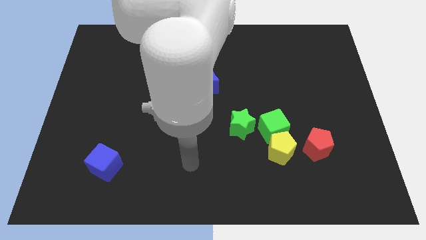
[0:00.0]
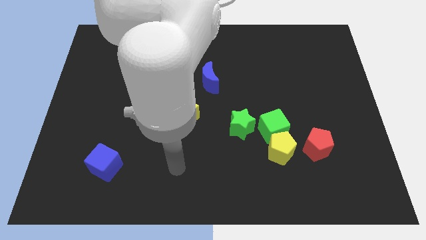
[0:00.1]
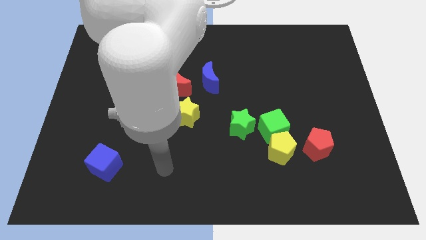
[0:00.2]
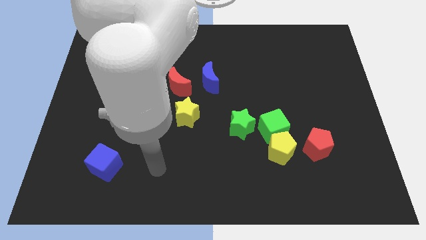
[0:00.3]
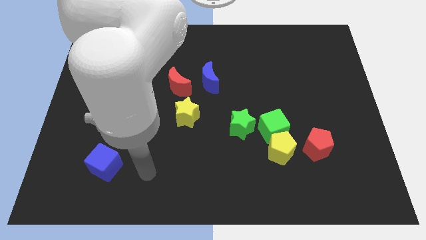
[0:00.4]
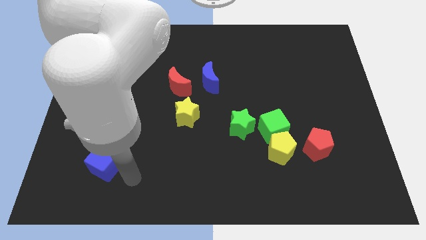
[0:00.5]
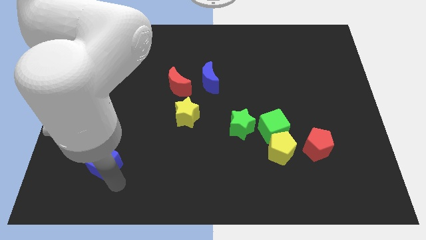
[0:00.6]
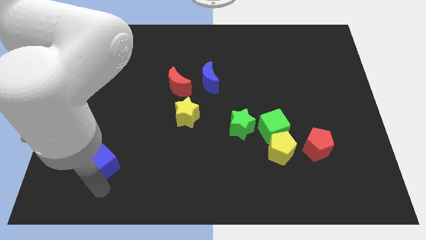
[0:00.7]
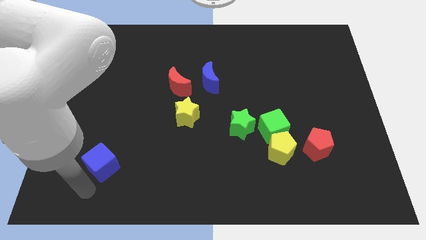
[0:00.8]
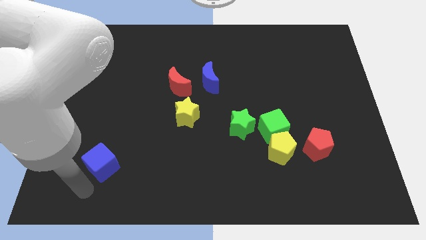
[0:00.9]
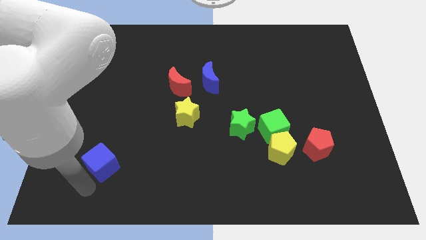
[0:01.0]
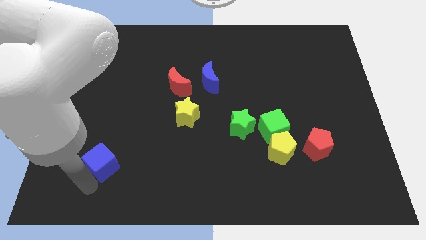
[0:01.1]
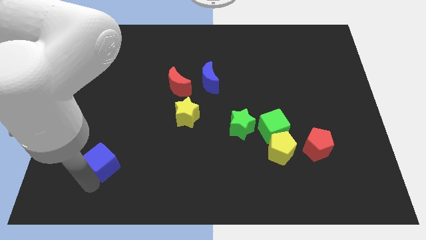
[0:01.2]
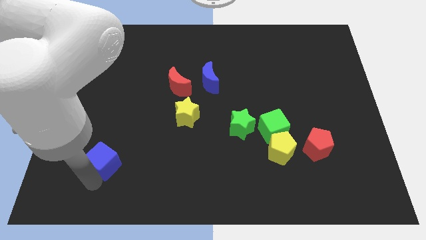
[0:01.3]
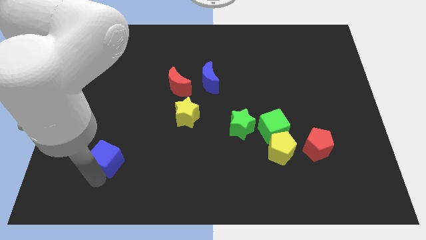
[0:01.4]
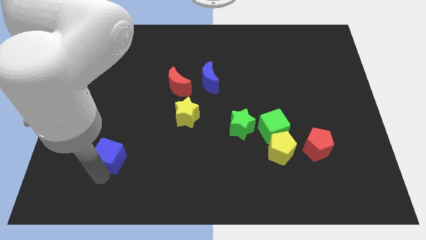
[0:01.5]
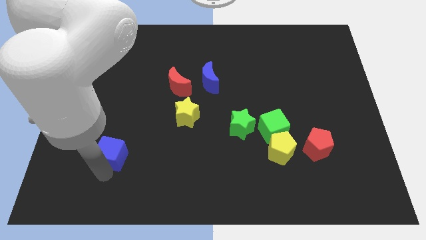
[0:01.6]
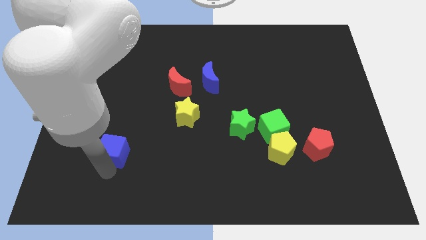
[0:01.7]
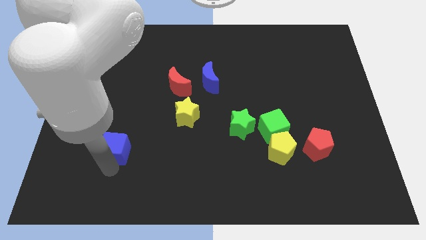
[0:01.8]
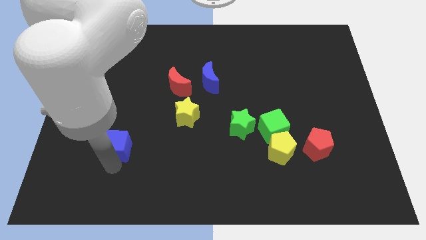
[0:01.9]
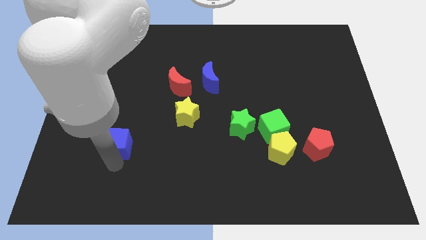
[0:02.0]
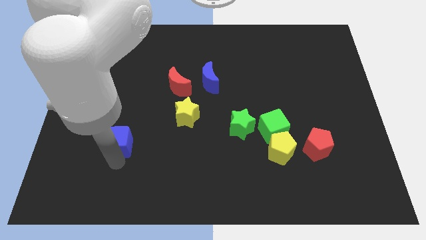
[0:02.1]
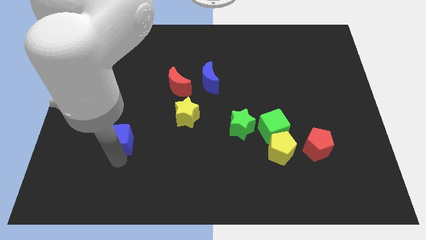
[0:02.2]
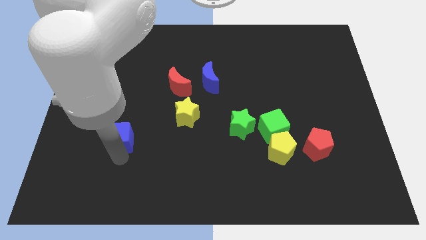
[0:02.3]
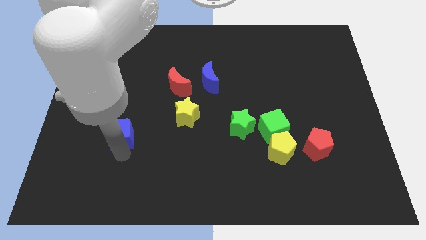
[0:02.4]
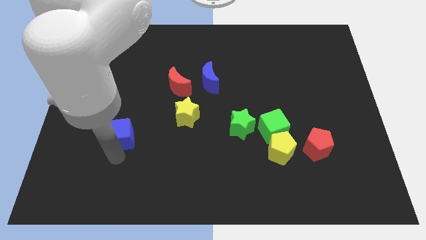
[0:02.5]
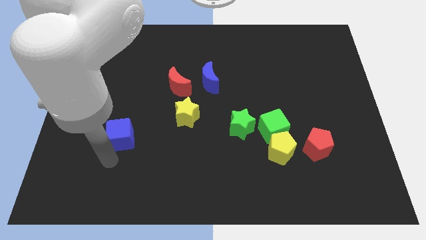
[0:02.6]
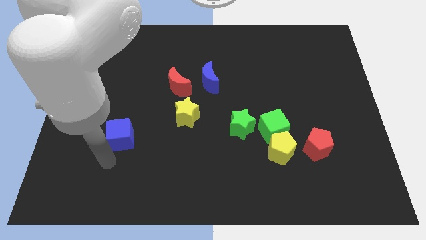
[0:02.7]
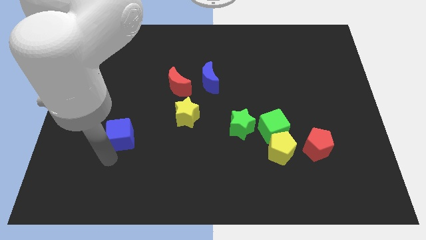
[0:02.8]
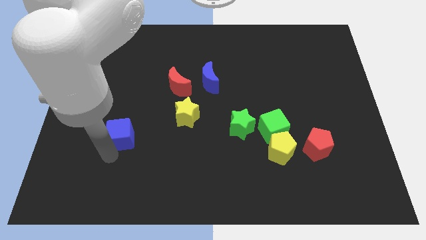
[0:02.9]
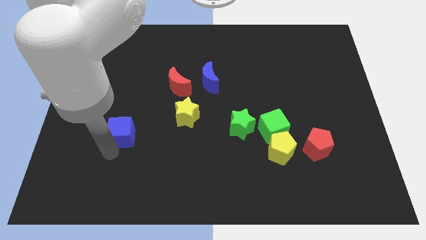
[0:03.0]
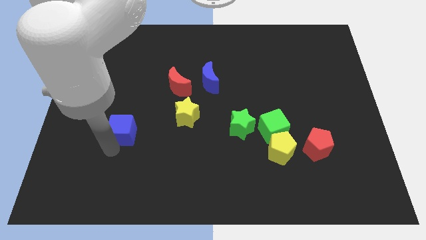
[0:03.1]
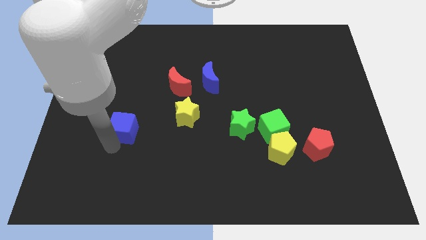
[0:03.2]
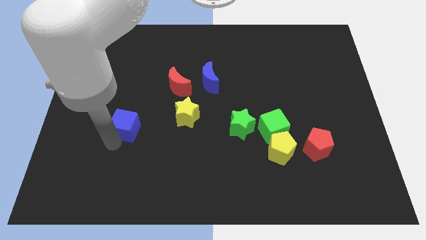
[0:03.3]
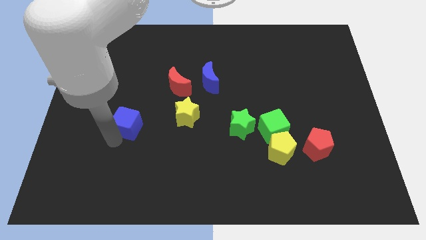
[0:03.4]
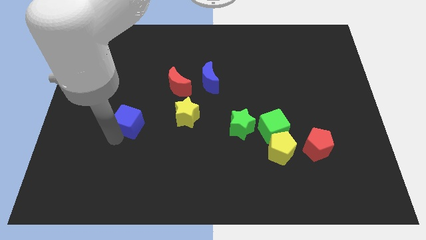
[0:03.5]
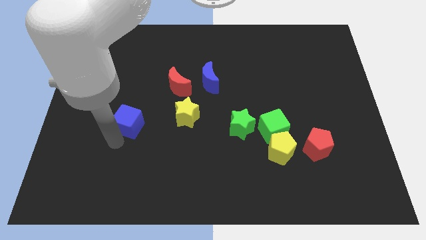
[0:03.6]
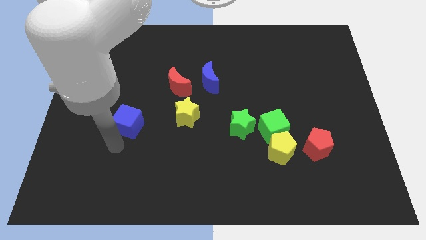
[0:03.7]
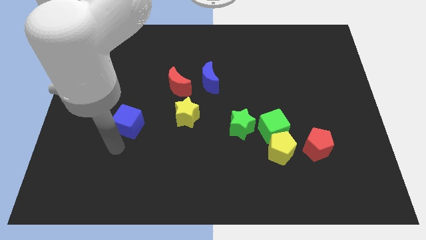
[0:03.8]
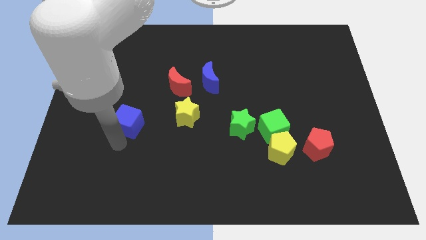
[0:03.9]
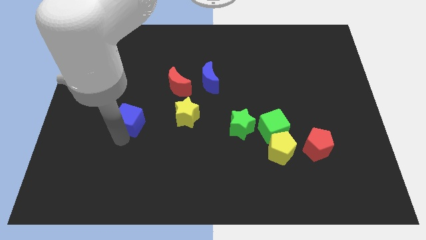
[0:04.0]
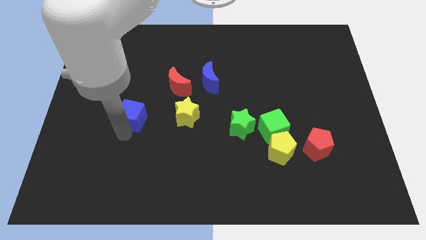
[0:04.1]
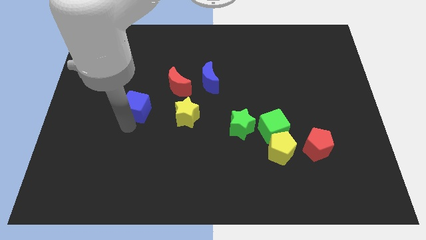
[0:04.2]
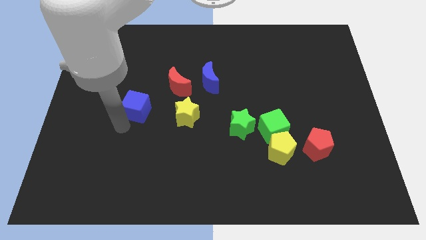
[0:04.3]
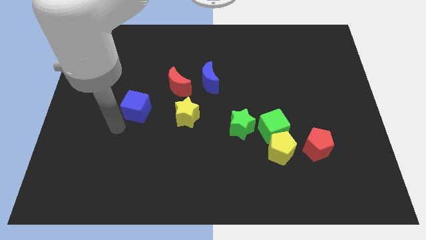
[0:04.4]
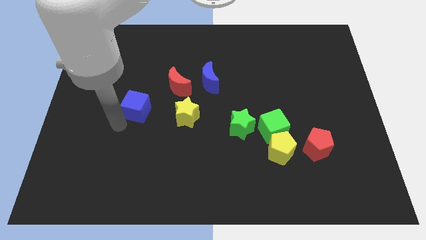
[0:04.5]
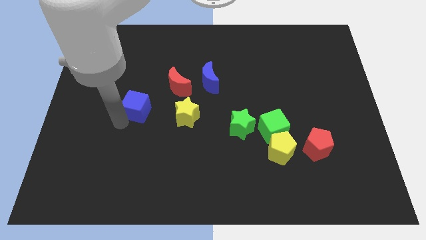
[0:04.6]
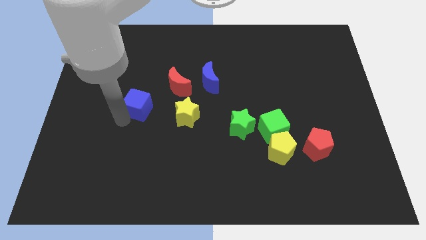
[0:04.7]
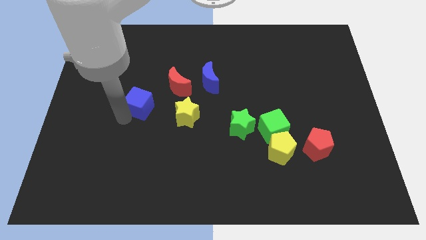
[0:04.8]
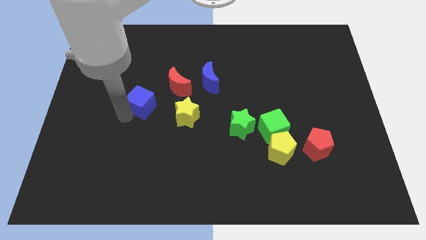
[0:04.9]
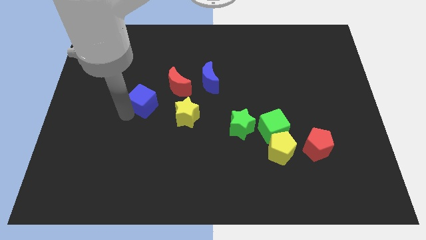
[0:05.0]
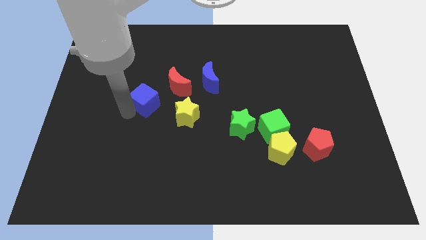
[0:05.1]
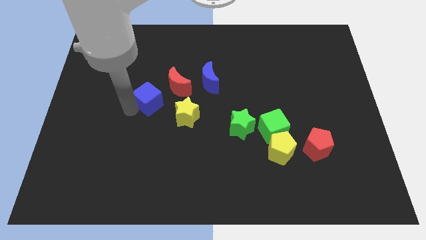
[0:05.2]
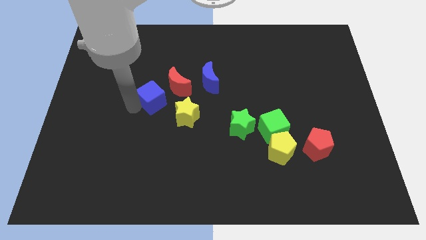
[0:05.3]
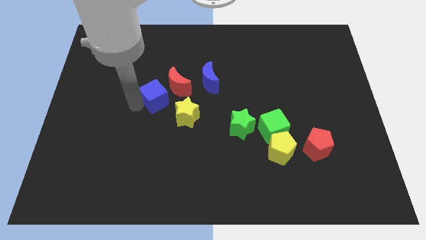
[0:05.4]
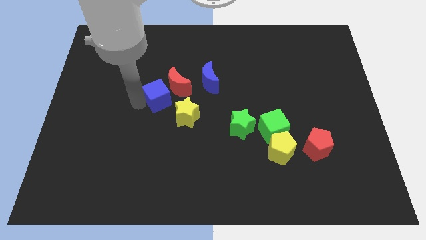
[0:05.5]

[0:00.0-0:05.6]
push the blue cube next to the red moon

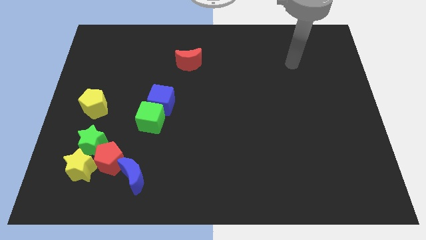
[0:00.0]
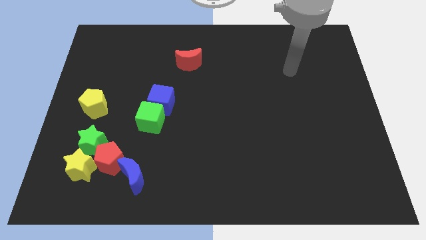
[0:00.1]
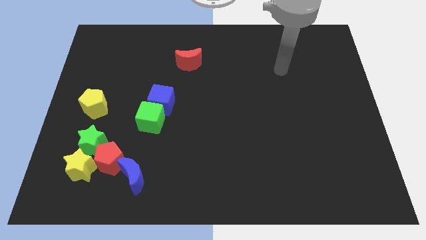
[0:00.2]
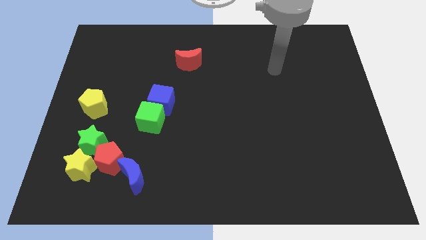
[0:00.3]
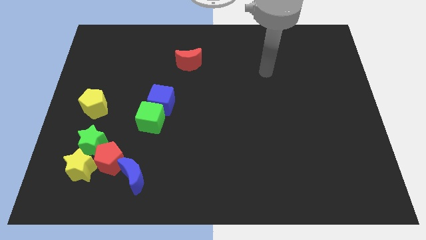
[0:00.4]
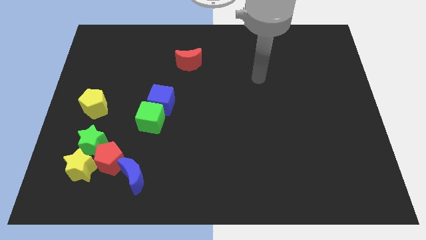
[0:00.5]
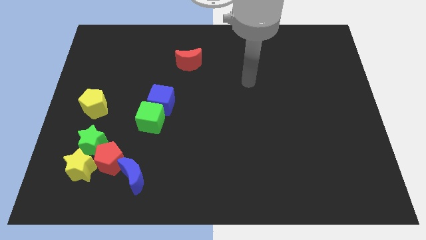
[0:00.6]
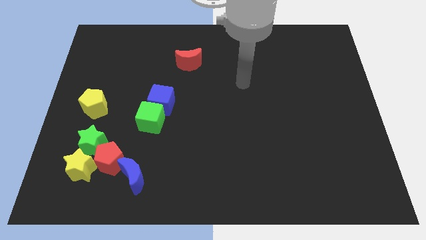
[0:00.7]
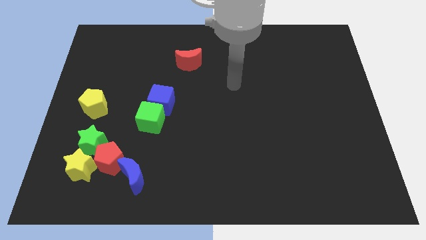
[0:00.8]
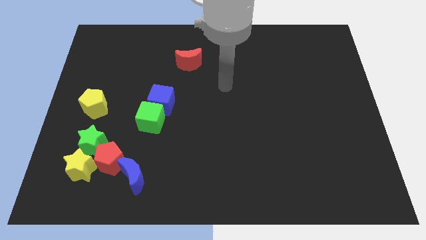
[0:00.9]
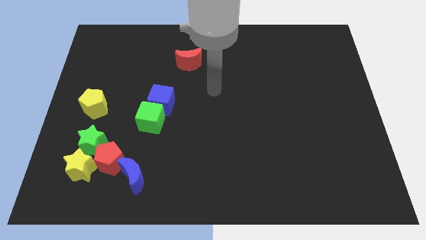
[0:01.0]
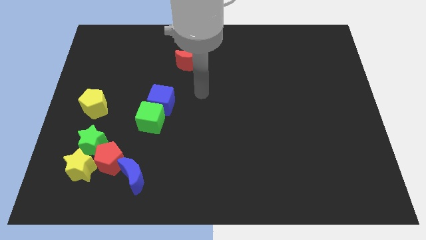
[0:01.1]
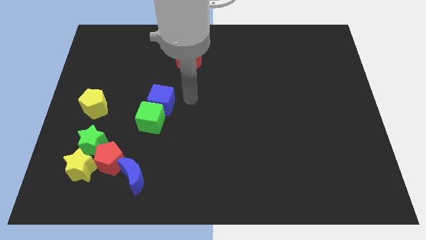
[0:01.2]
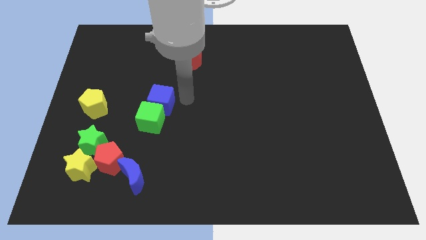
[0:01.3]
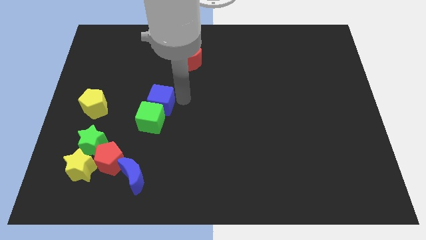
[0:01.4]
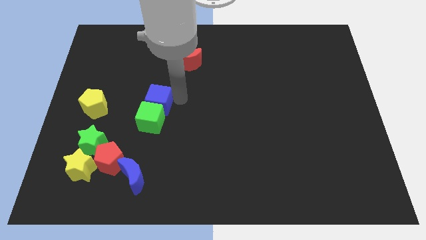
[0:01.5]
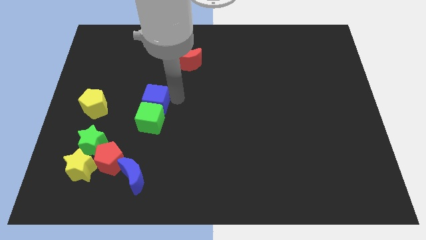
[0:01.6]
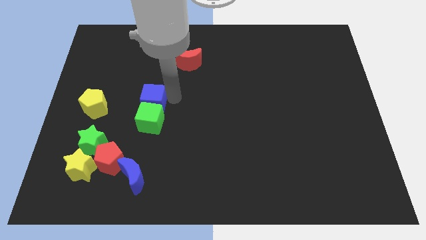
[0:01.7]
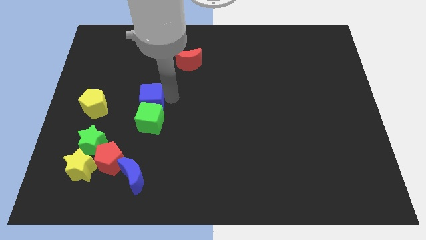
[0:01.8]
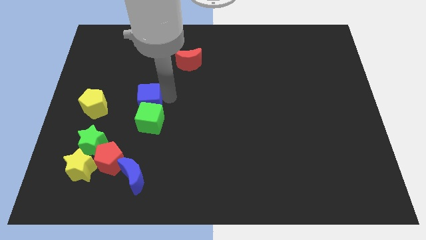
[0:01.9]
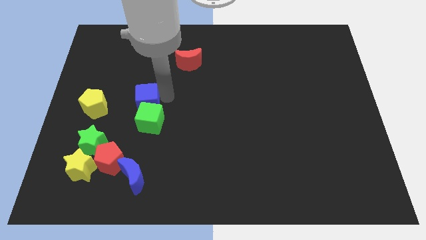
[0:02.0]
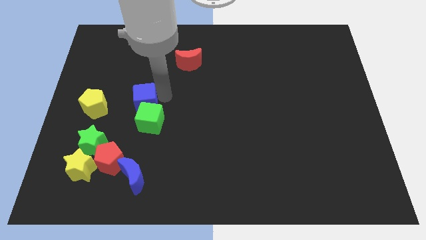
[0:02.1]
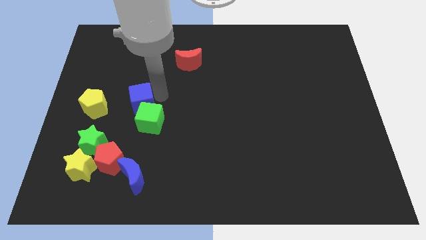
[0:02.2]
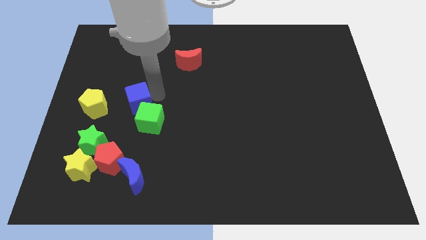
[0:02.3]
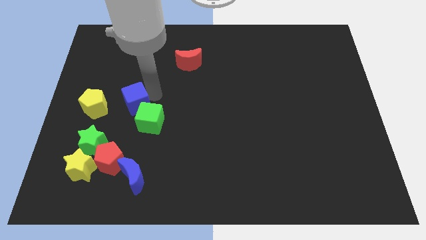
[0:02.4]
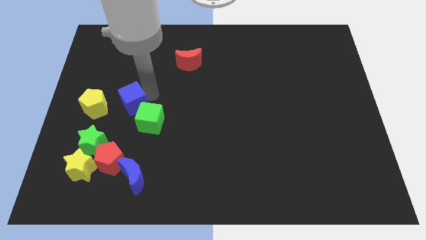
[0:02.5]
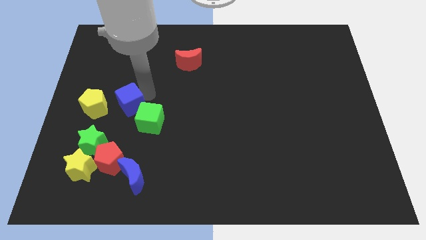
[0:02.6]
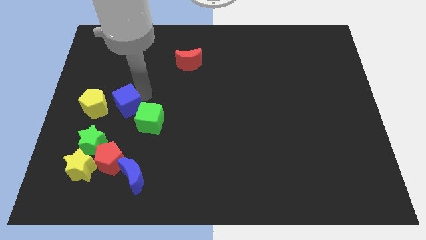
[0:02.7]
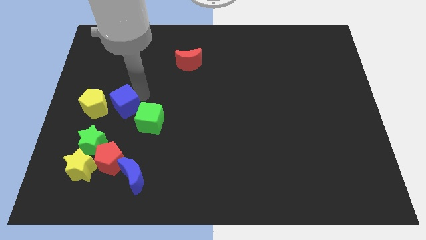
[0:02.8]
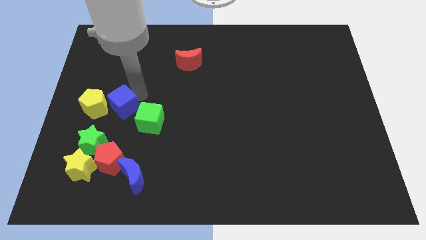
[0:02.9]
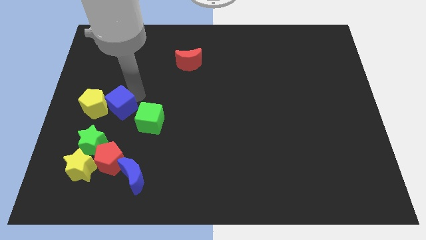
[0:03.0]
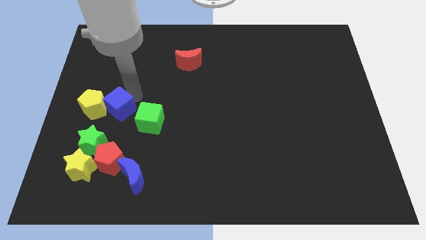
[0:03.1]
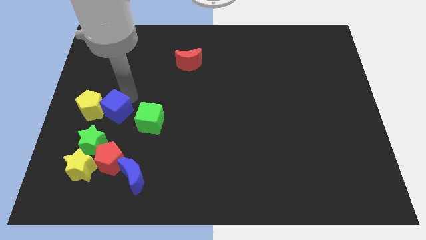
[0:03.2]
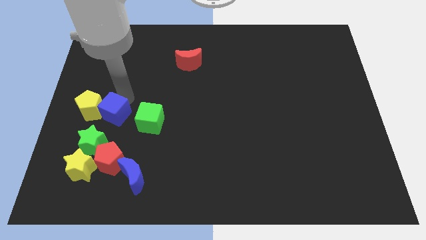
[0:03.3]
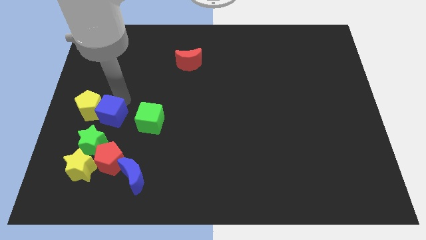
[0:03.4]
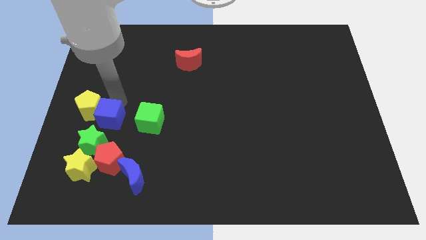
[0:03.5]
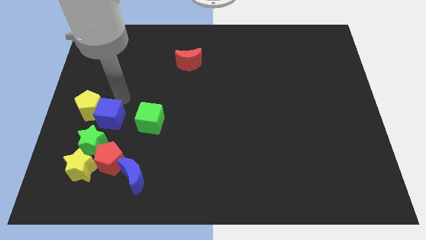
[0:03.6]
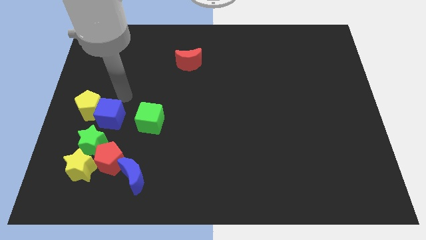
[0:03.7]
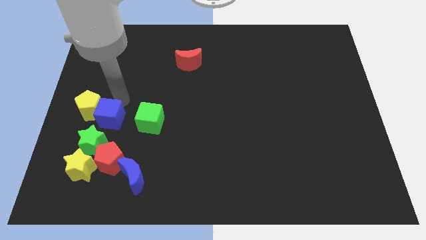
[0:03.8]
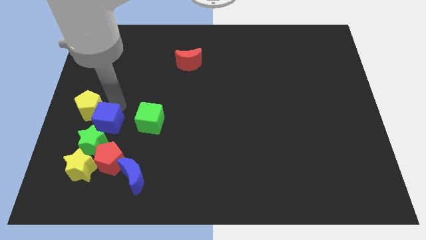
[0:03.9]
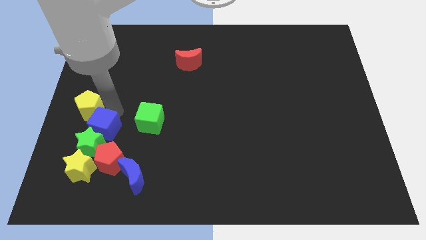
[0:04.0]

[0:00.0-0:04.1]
move the blue cube close to the green star
